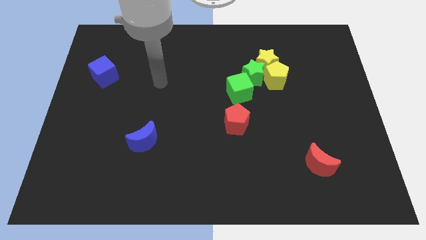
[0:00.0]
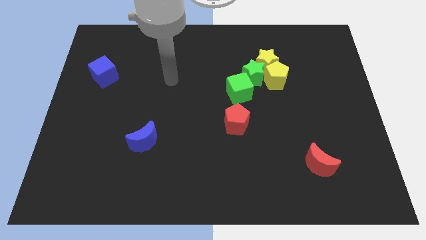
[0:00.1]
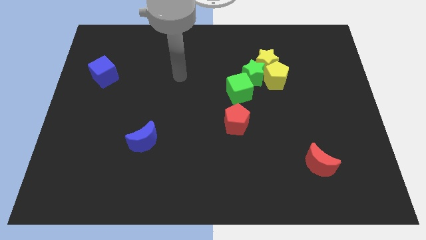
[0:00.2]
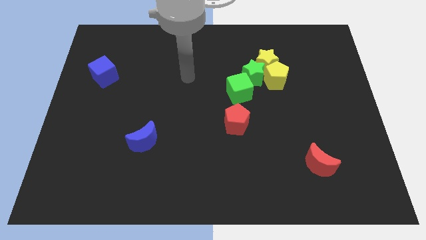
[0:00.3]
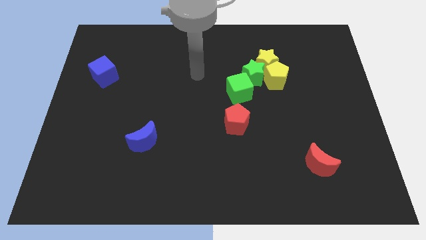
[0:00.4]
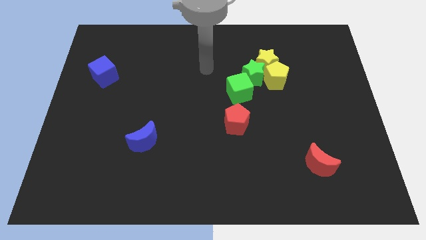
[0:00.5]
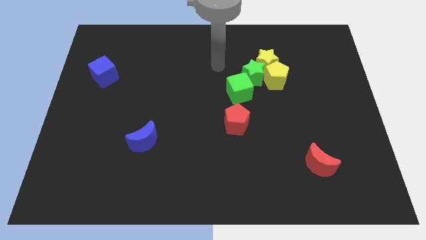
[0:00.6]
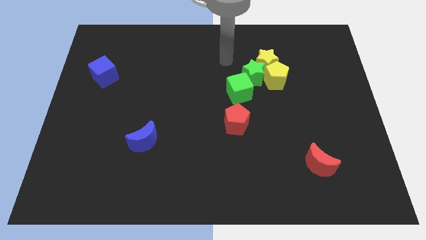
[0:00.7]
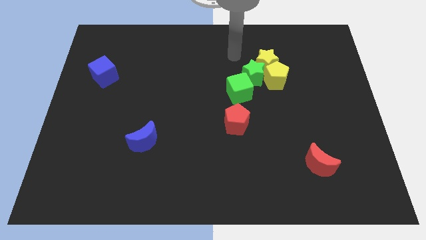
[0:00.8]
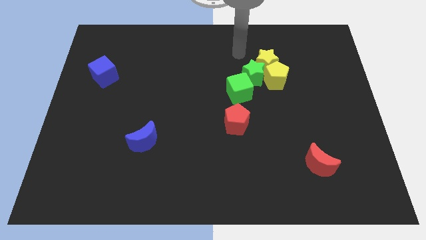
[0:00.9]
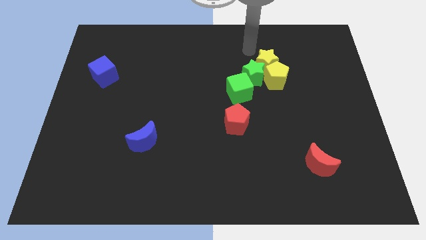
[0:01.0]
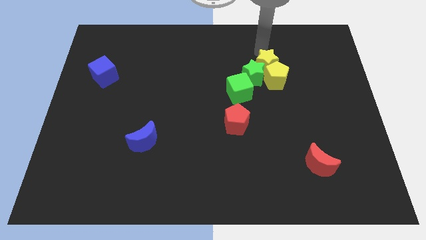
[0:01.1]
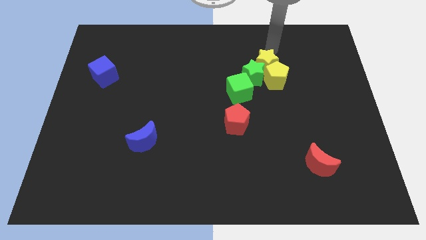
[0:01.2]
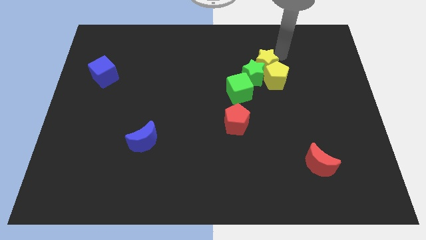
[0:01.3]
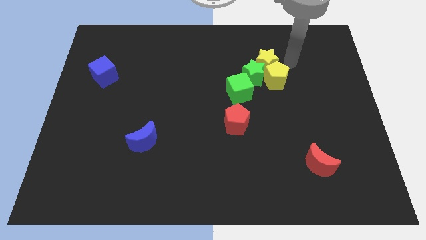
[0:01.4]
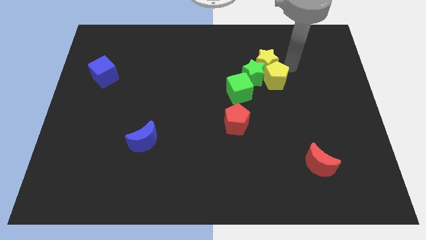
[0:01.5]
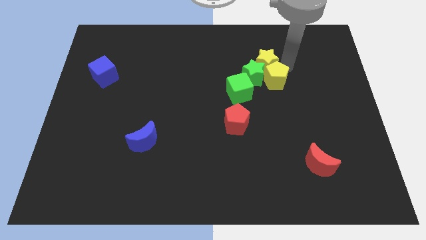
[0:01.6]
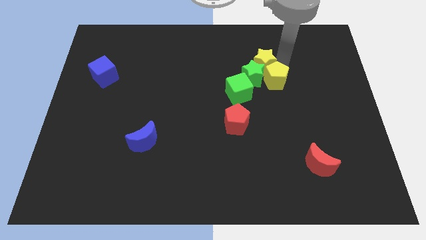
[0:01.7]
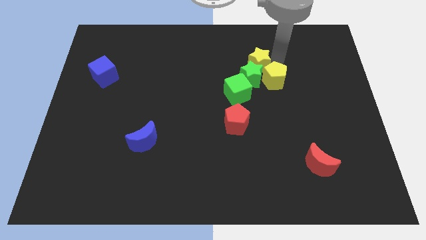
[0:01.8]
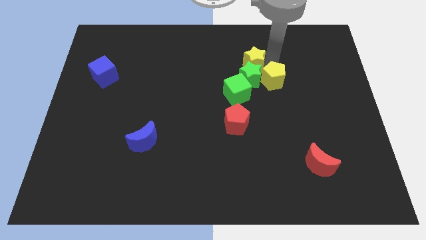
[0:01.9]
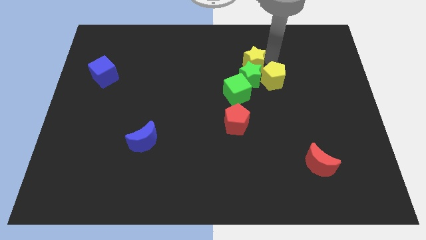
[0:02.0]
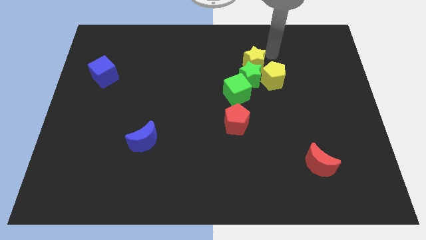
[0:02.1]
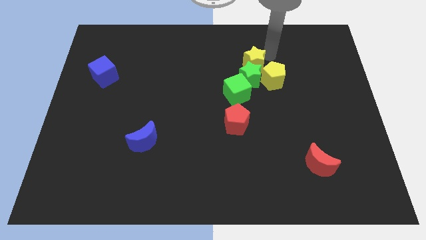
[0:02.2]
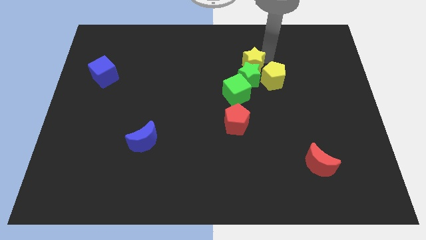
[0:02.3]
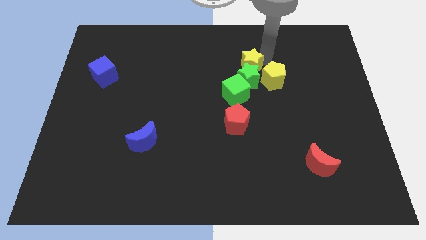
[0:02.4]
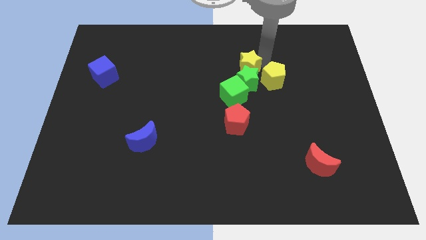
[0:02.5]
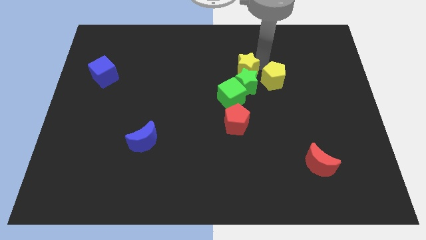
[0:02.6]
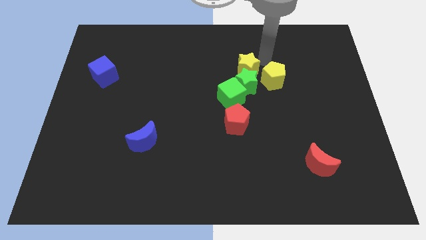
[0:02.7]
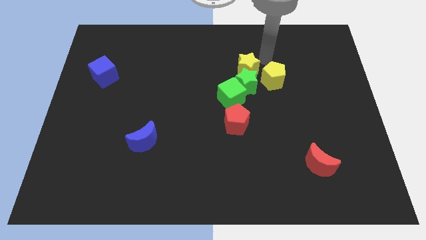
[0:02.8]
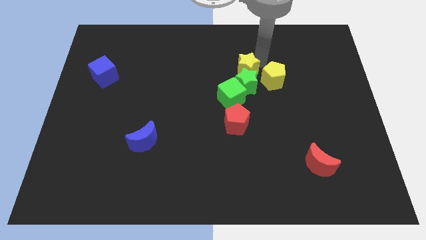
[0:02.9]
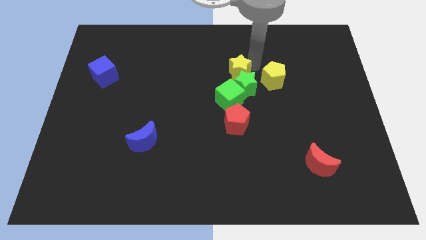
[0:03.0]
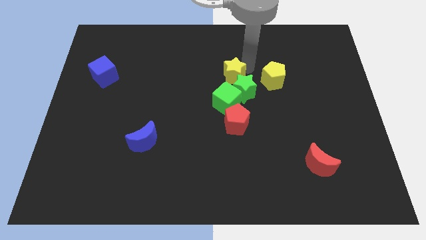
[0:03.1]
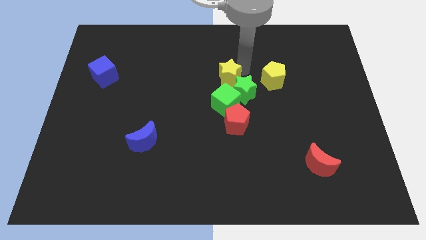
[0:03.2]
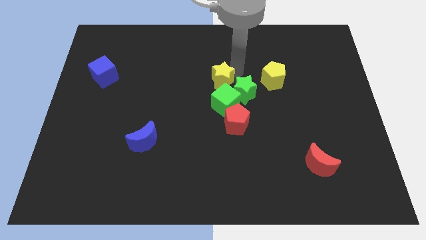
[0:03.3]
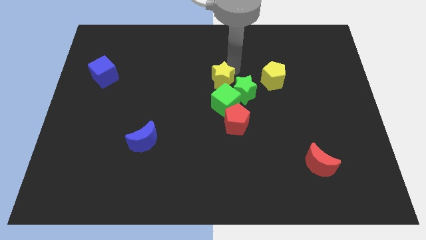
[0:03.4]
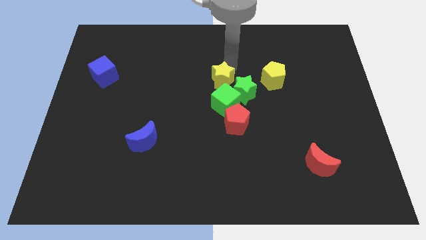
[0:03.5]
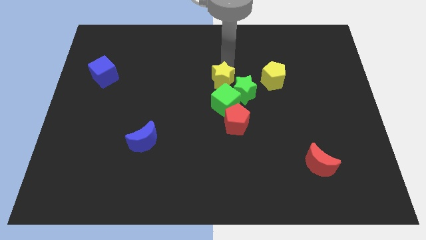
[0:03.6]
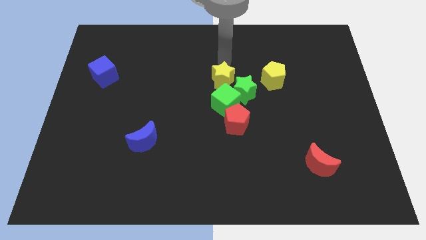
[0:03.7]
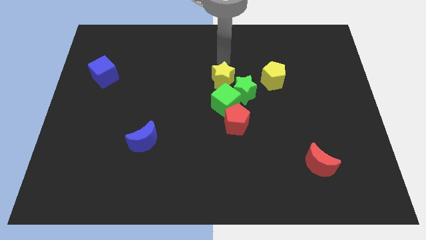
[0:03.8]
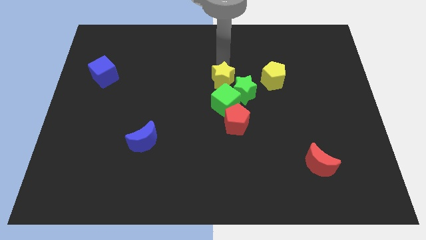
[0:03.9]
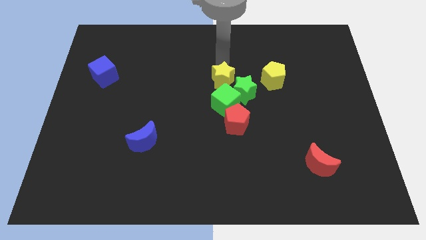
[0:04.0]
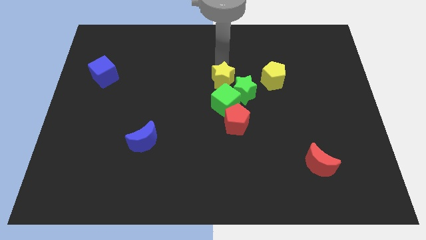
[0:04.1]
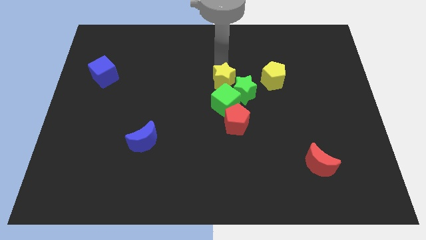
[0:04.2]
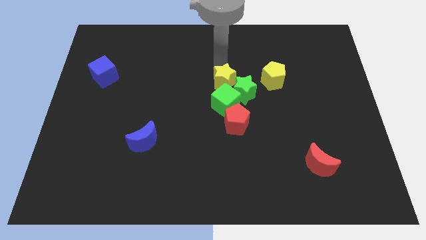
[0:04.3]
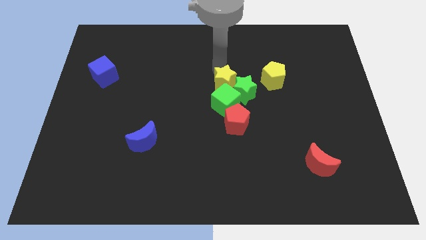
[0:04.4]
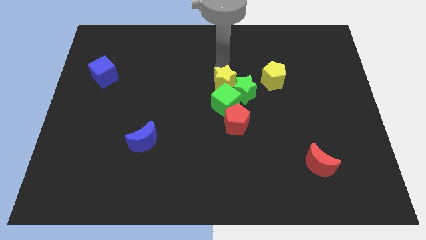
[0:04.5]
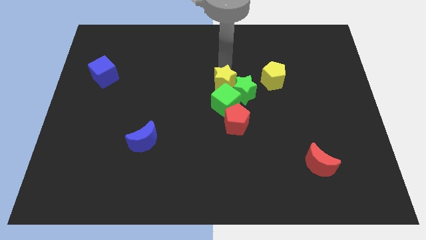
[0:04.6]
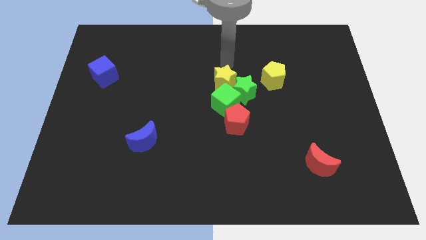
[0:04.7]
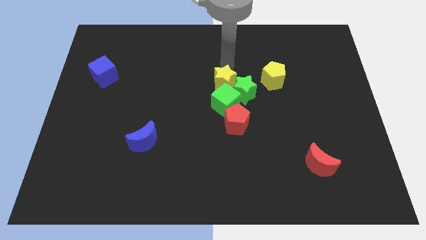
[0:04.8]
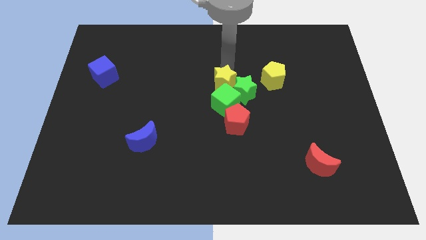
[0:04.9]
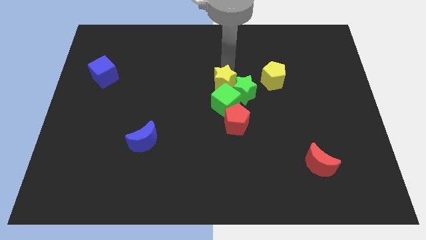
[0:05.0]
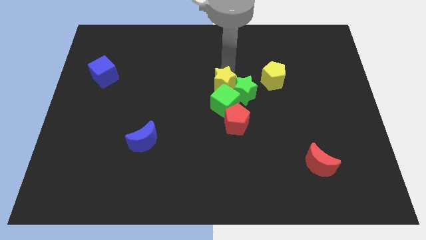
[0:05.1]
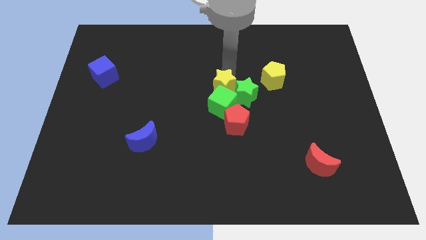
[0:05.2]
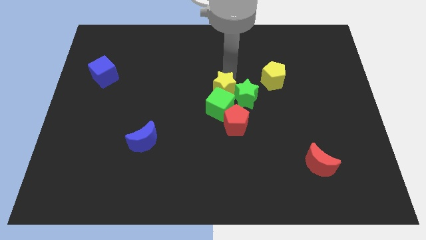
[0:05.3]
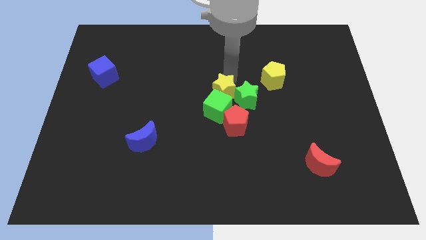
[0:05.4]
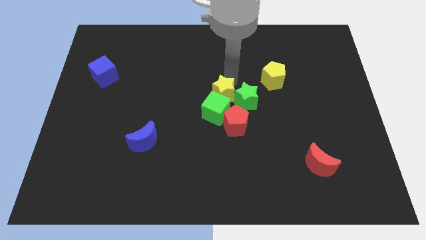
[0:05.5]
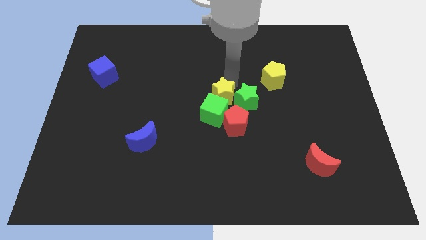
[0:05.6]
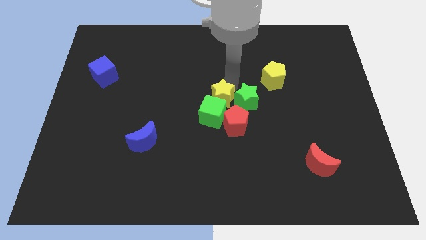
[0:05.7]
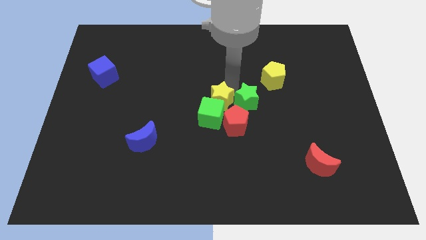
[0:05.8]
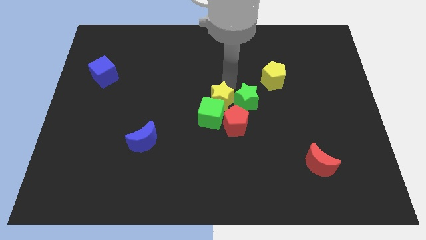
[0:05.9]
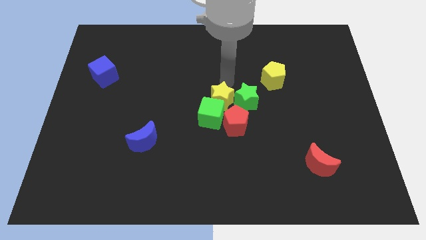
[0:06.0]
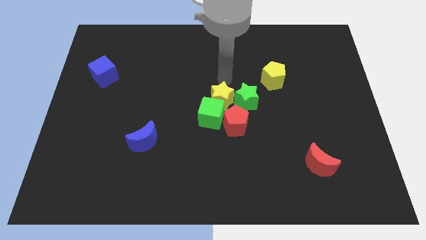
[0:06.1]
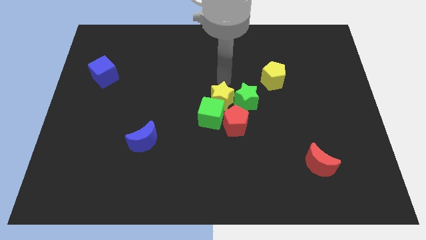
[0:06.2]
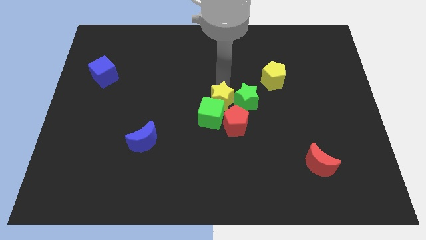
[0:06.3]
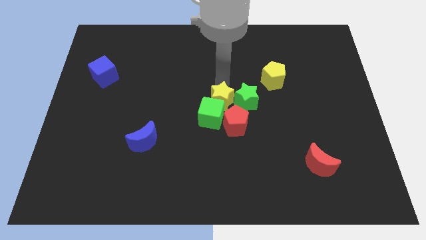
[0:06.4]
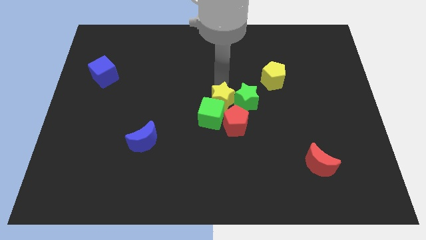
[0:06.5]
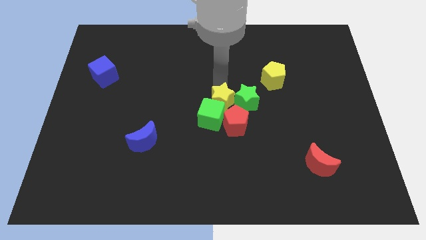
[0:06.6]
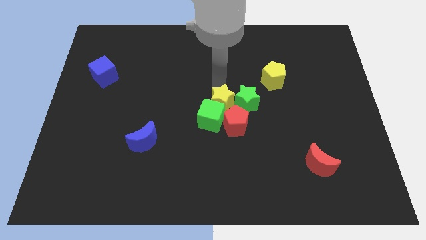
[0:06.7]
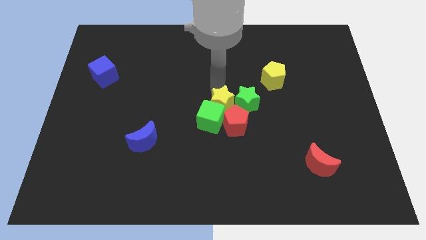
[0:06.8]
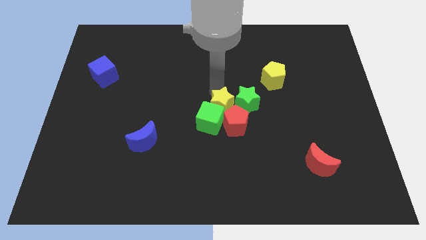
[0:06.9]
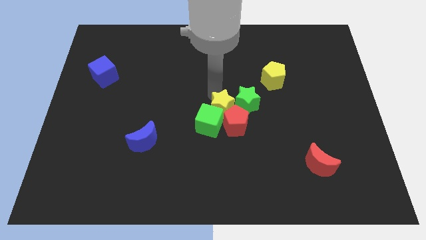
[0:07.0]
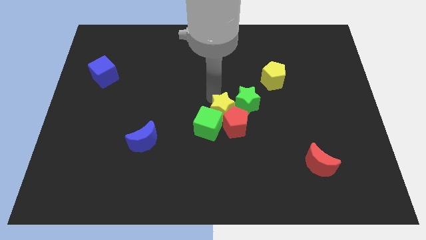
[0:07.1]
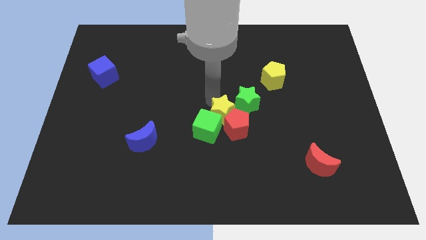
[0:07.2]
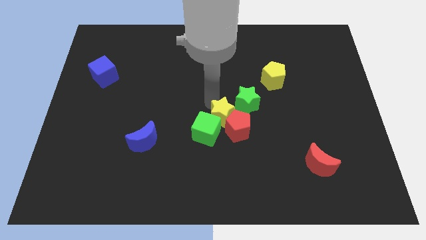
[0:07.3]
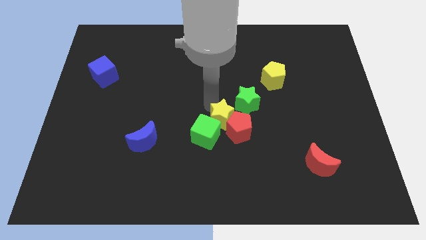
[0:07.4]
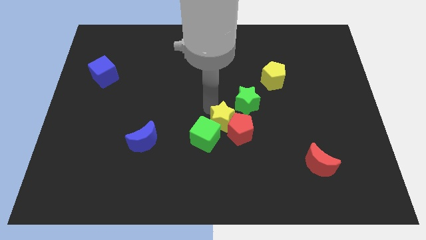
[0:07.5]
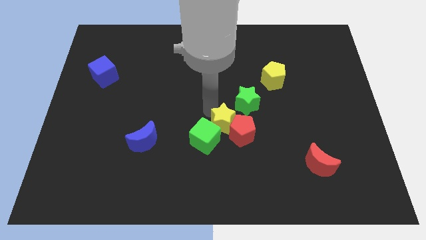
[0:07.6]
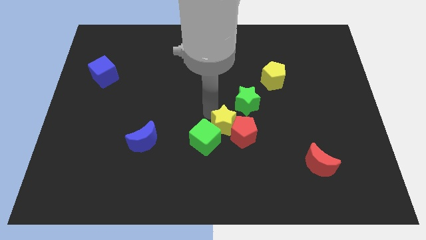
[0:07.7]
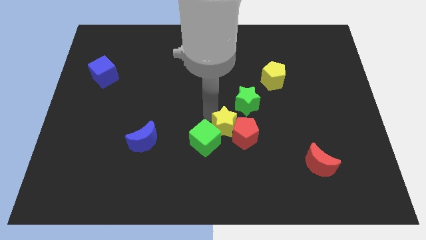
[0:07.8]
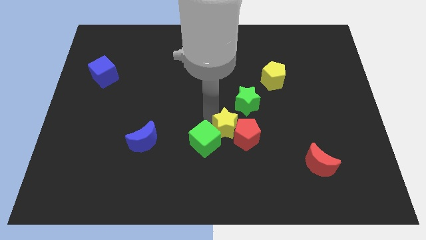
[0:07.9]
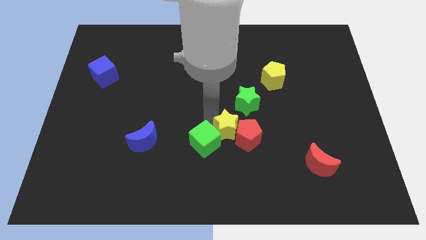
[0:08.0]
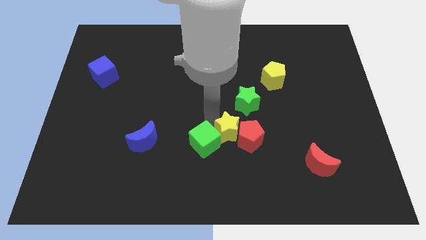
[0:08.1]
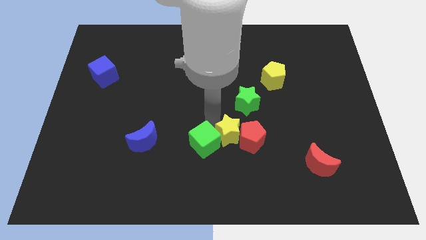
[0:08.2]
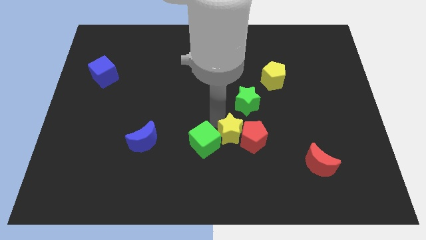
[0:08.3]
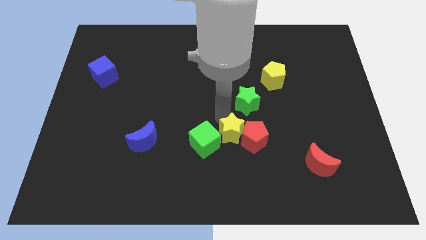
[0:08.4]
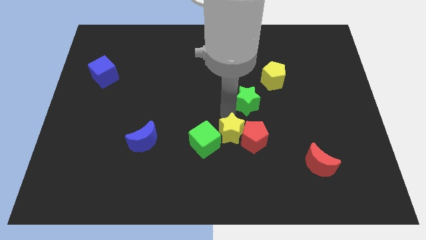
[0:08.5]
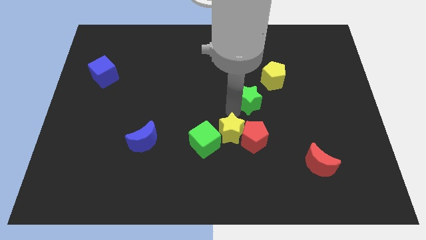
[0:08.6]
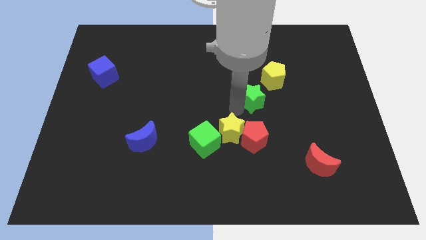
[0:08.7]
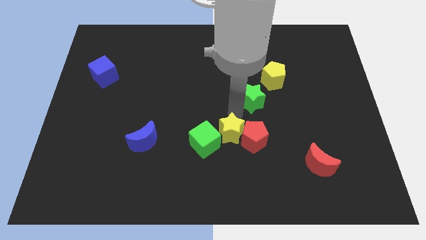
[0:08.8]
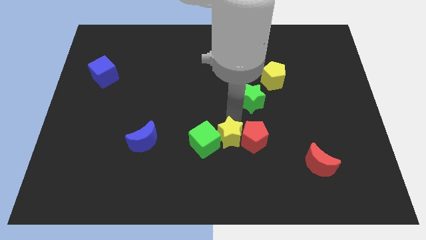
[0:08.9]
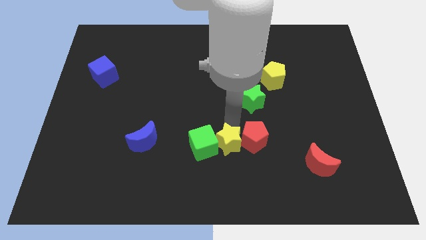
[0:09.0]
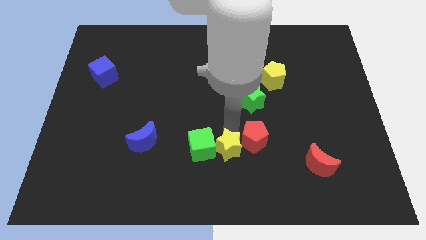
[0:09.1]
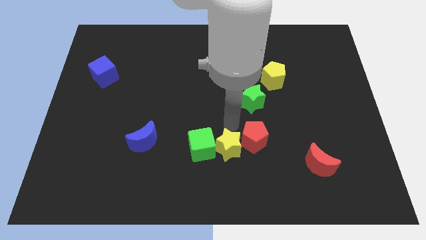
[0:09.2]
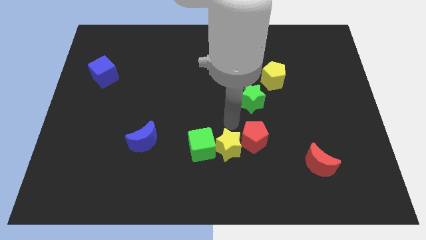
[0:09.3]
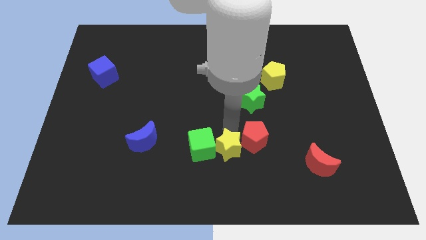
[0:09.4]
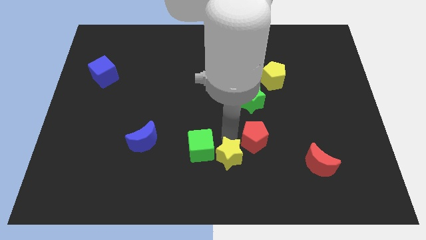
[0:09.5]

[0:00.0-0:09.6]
slide the yellow star to the bottom side
